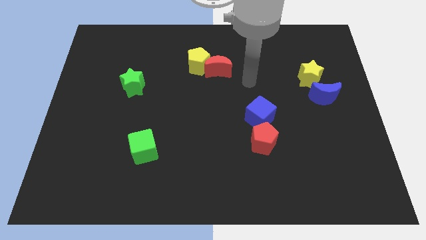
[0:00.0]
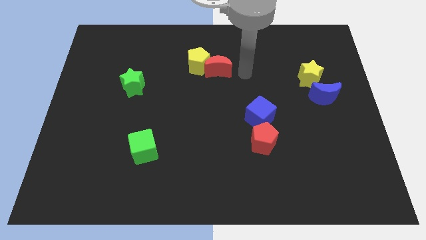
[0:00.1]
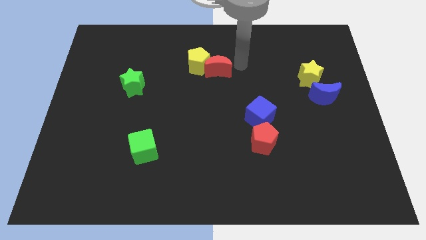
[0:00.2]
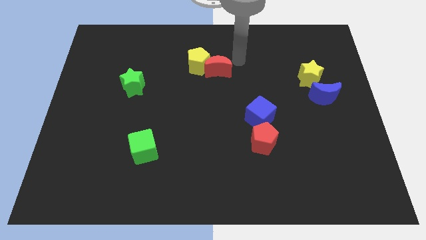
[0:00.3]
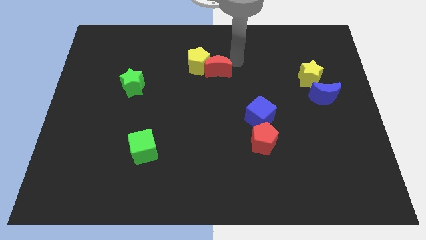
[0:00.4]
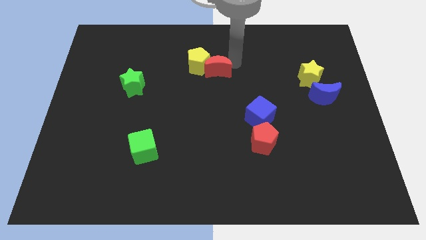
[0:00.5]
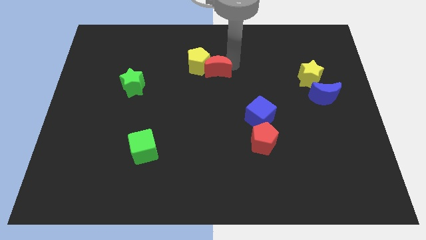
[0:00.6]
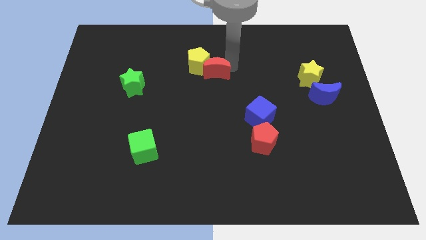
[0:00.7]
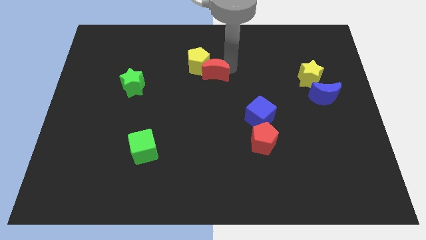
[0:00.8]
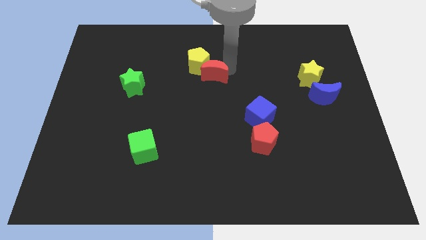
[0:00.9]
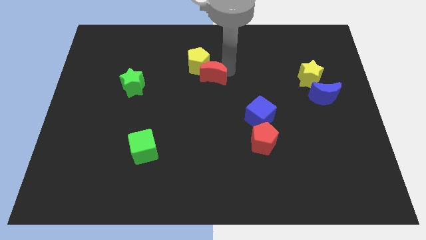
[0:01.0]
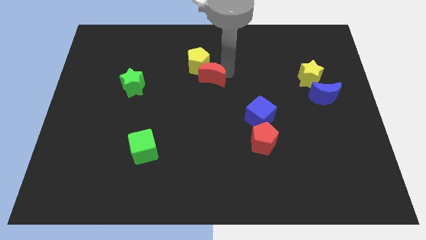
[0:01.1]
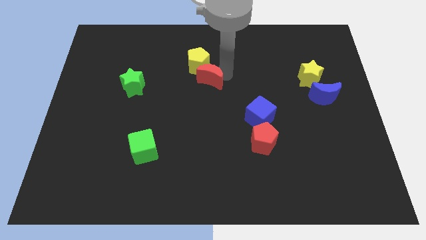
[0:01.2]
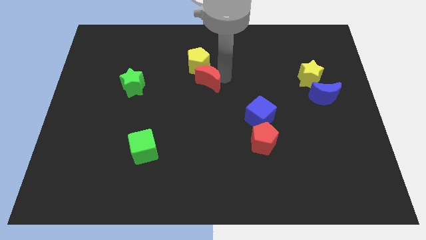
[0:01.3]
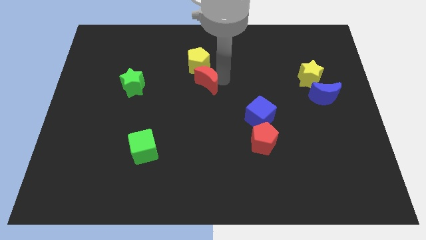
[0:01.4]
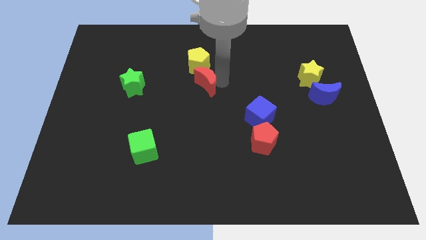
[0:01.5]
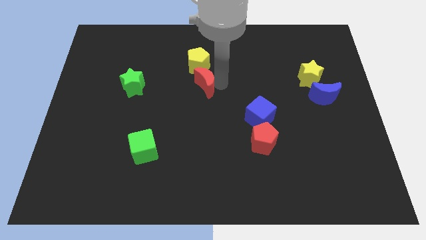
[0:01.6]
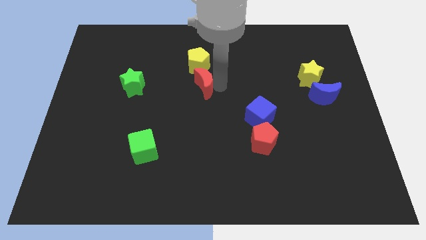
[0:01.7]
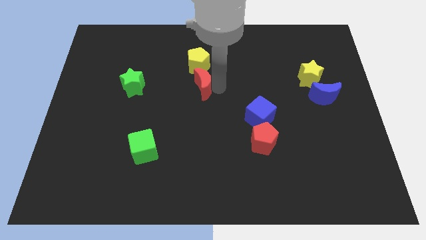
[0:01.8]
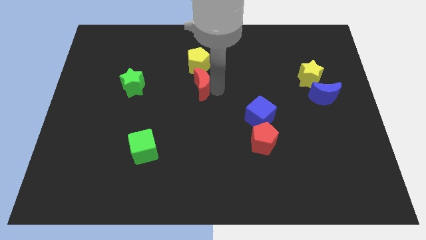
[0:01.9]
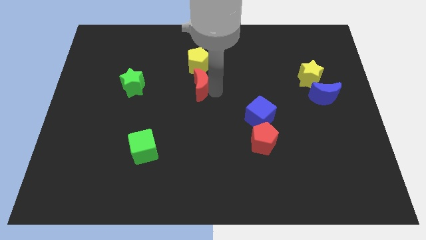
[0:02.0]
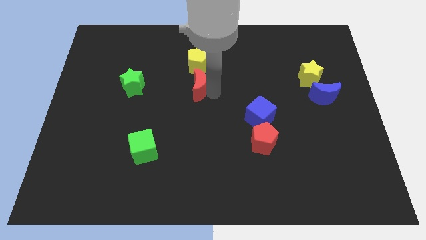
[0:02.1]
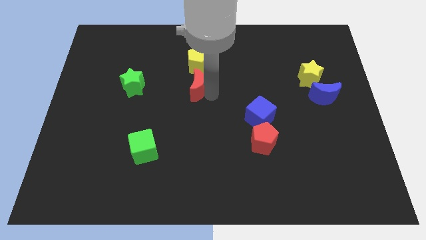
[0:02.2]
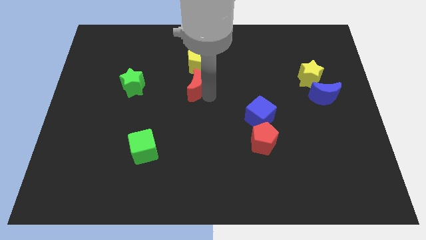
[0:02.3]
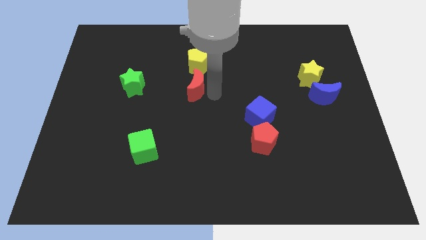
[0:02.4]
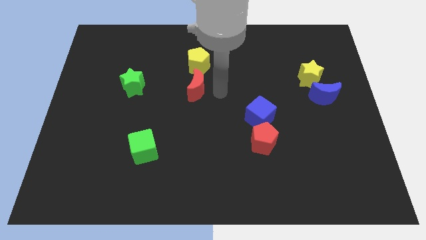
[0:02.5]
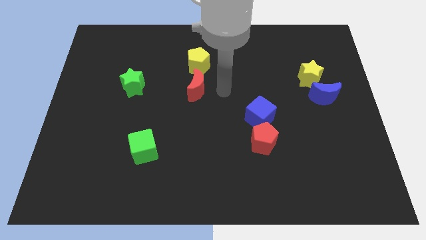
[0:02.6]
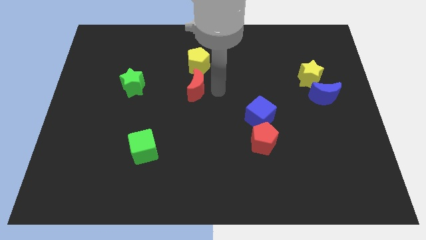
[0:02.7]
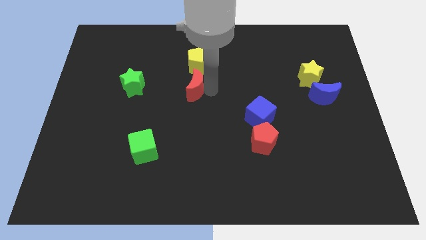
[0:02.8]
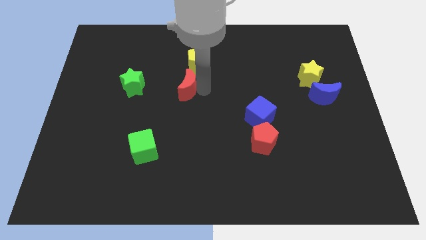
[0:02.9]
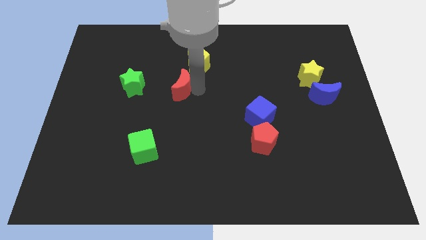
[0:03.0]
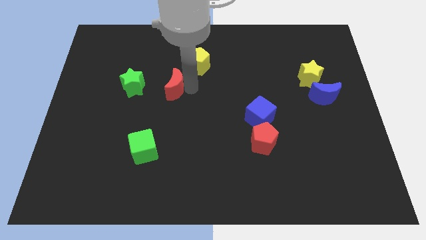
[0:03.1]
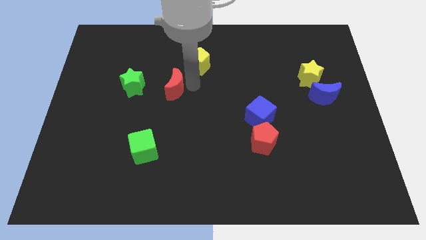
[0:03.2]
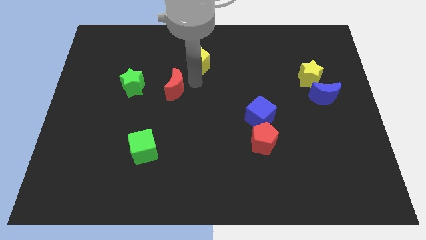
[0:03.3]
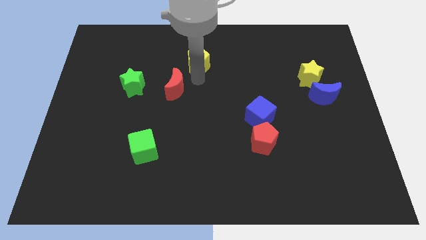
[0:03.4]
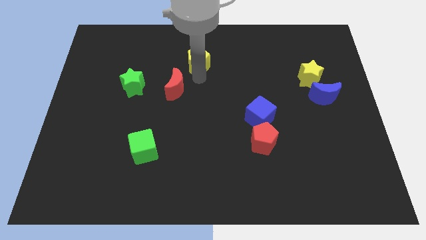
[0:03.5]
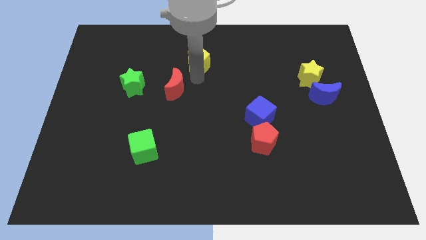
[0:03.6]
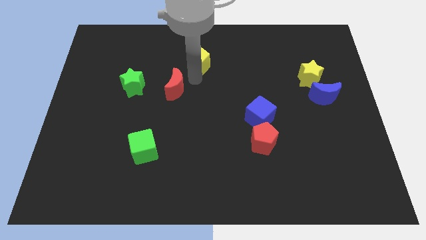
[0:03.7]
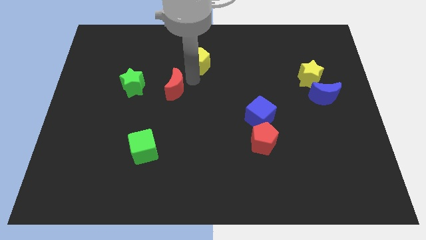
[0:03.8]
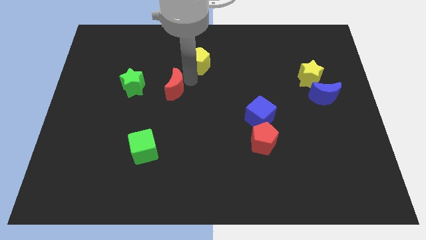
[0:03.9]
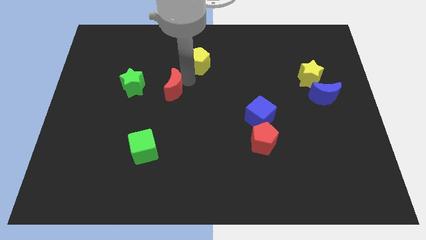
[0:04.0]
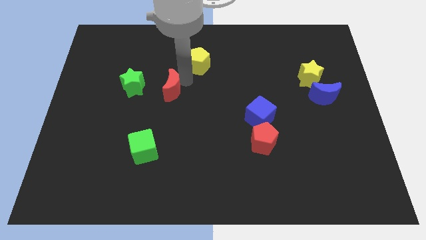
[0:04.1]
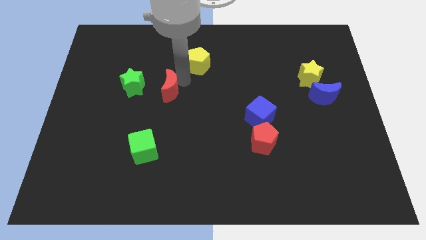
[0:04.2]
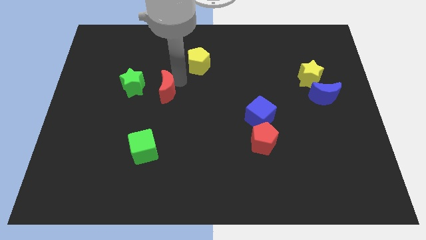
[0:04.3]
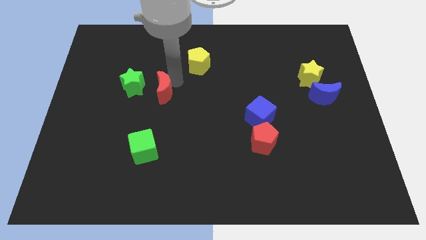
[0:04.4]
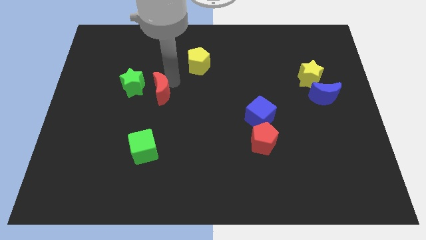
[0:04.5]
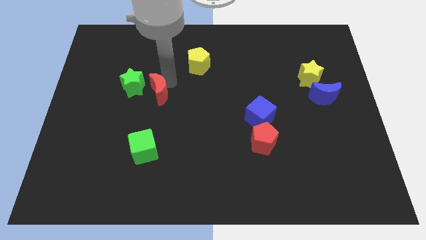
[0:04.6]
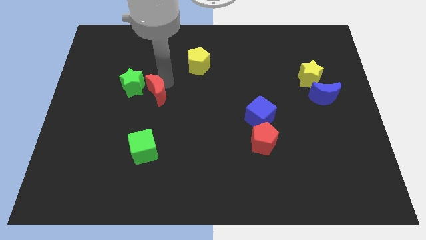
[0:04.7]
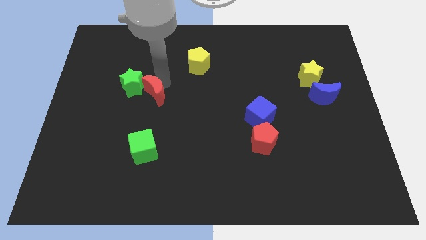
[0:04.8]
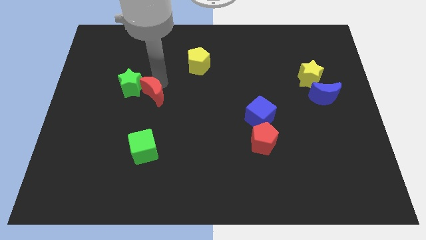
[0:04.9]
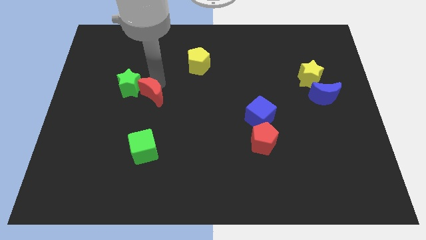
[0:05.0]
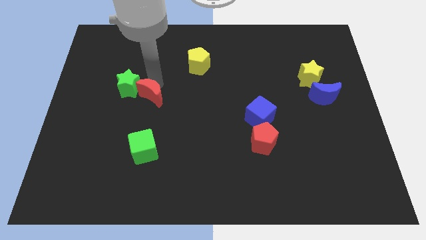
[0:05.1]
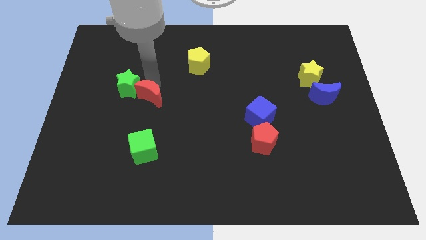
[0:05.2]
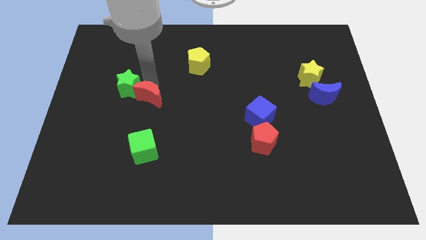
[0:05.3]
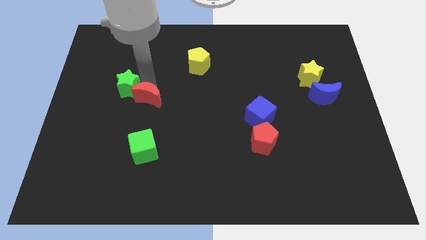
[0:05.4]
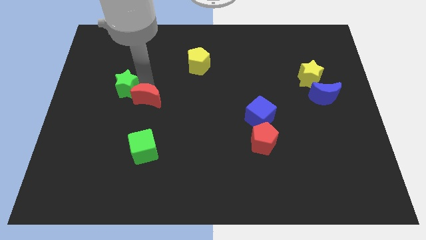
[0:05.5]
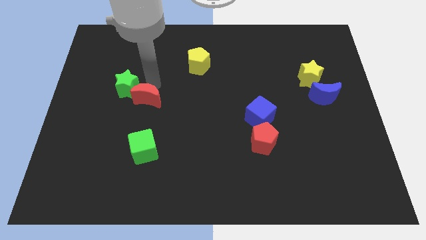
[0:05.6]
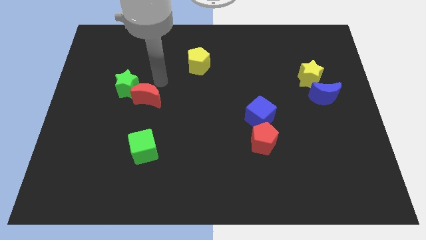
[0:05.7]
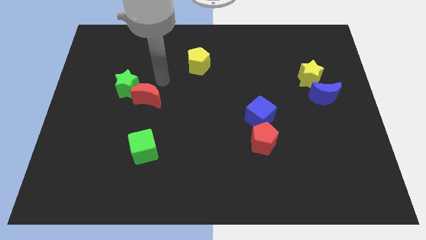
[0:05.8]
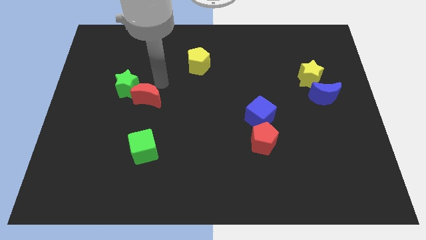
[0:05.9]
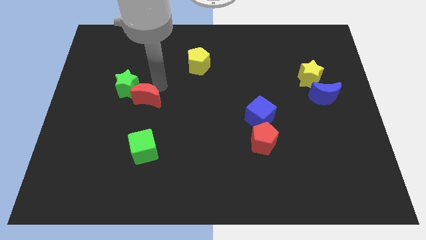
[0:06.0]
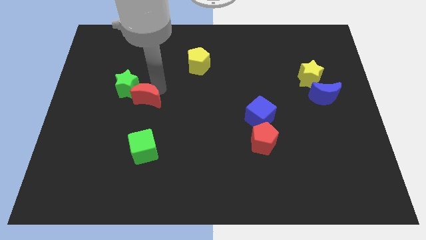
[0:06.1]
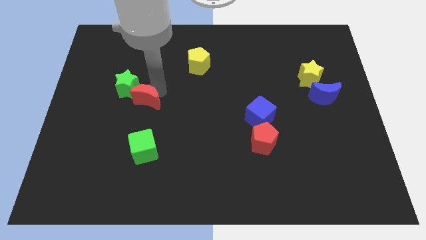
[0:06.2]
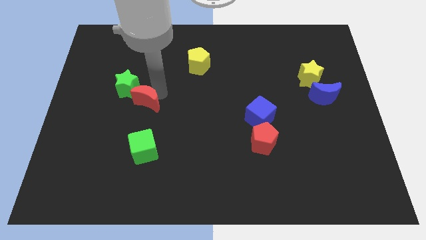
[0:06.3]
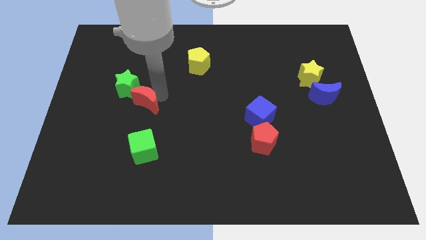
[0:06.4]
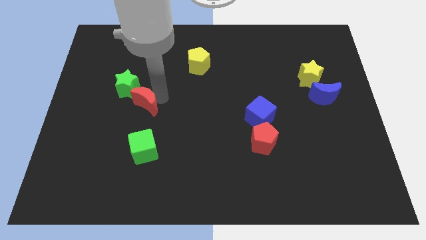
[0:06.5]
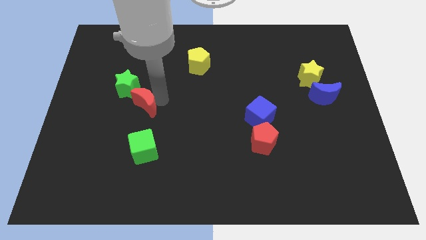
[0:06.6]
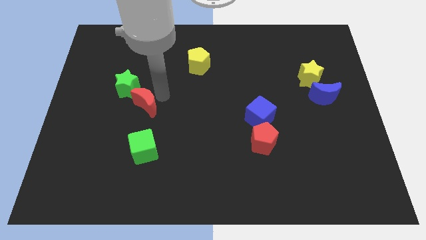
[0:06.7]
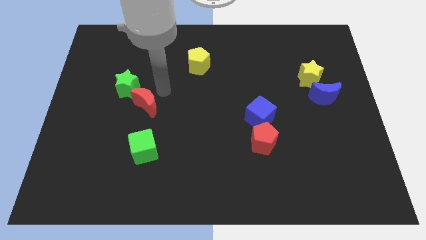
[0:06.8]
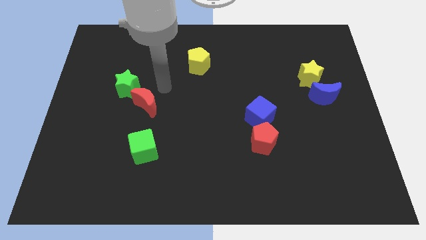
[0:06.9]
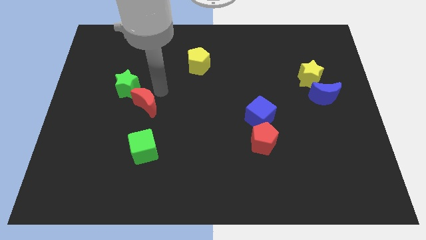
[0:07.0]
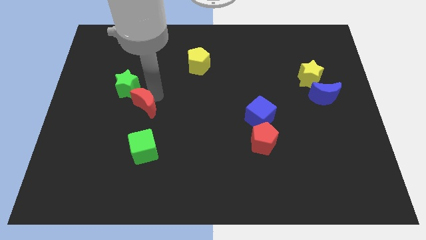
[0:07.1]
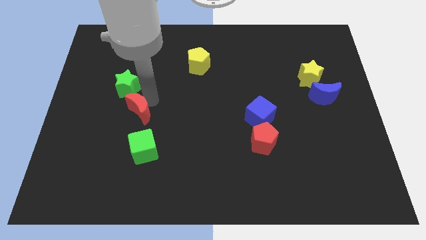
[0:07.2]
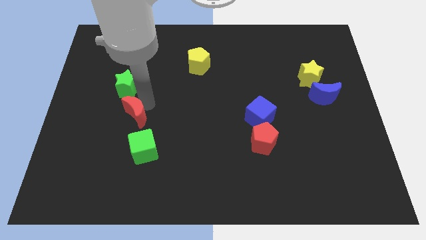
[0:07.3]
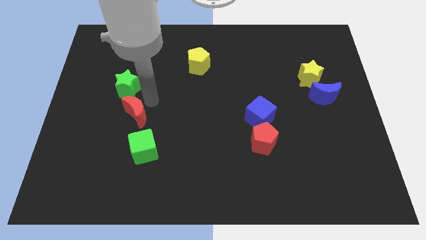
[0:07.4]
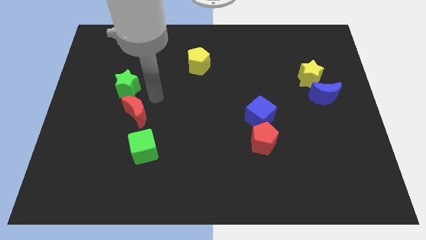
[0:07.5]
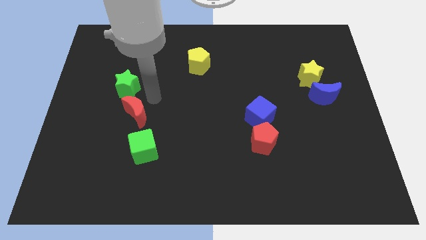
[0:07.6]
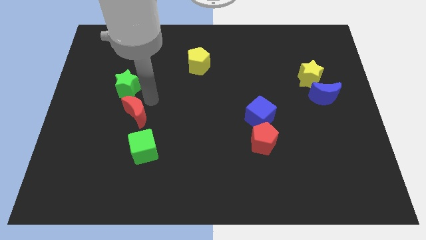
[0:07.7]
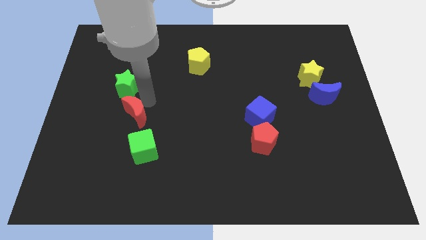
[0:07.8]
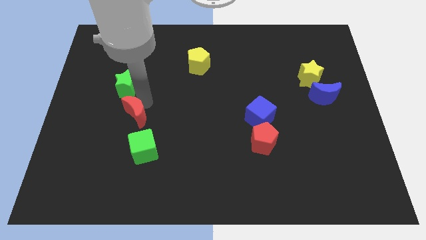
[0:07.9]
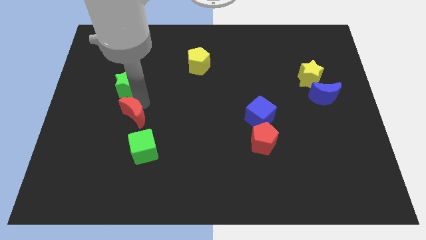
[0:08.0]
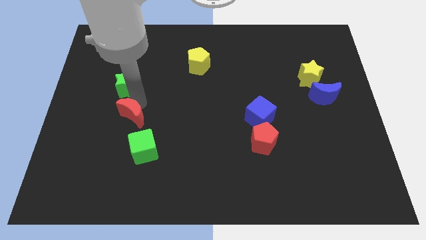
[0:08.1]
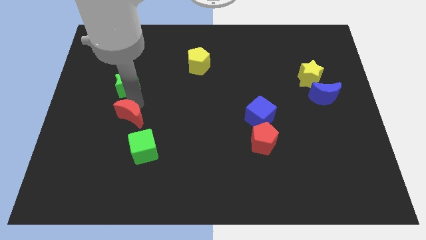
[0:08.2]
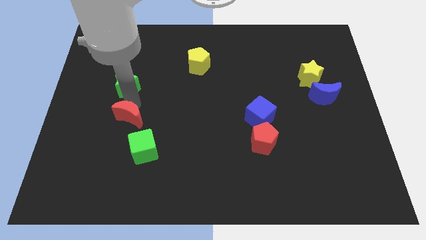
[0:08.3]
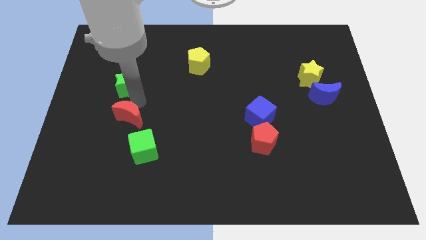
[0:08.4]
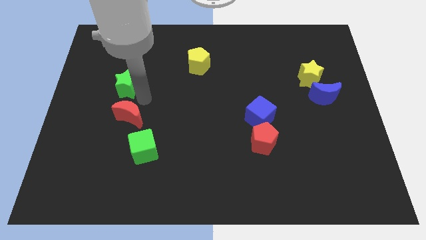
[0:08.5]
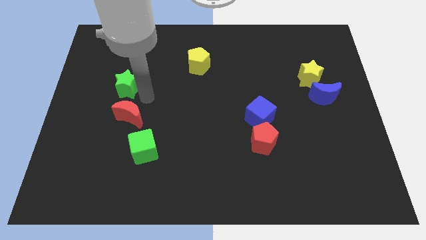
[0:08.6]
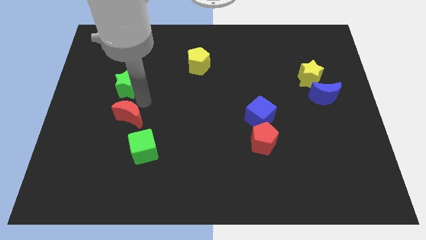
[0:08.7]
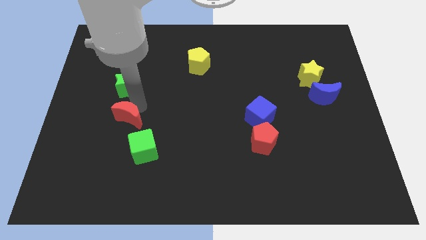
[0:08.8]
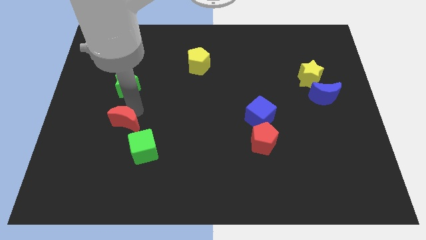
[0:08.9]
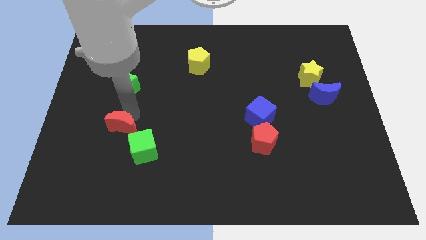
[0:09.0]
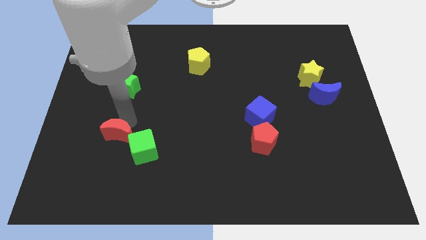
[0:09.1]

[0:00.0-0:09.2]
push the red moon to the left side of the green cube
